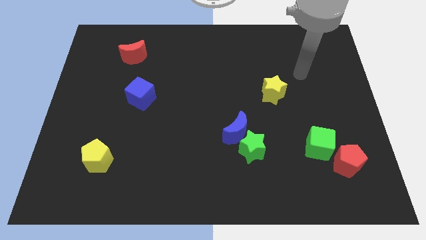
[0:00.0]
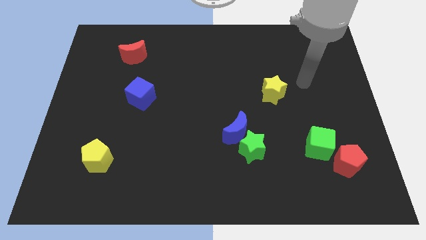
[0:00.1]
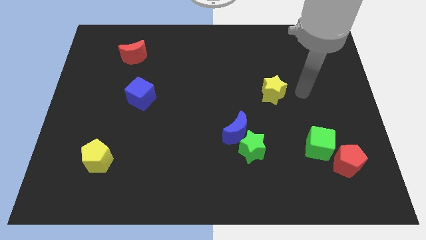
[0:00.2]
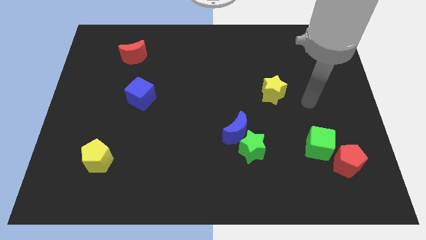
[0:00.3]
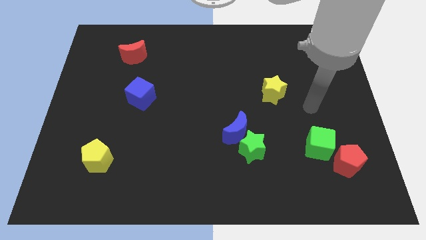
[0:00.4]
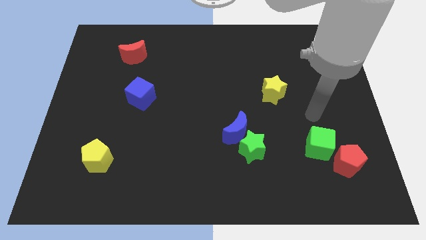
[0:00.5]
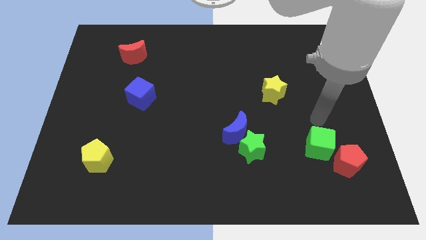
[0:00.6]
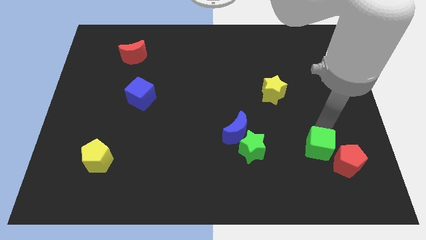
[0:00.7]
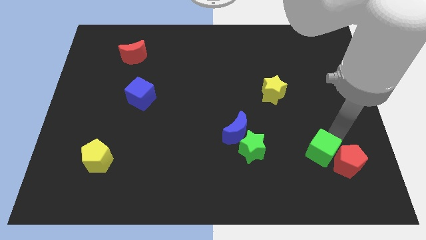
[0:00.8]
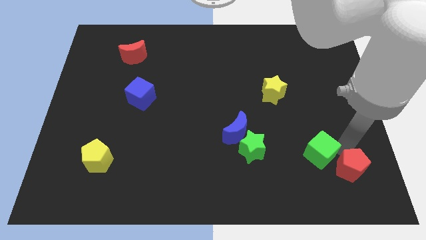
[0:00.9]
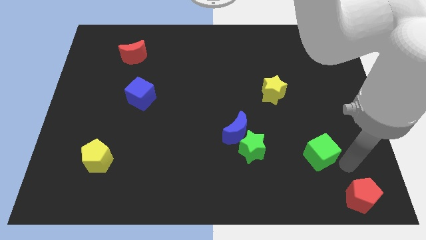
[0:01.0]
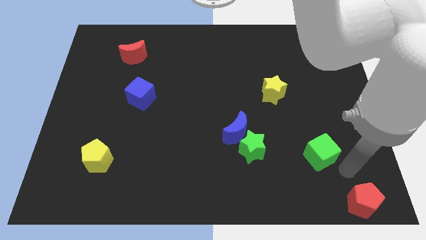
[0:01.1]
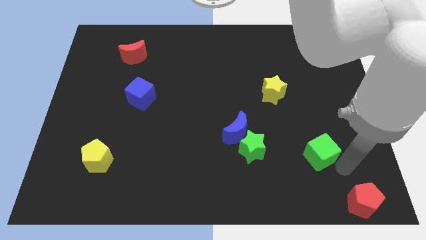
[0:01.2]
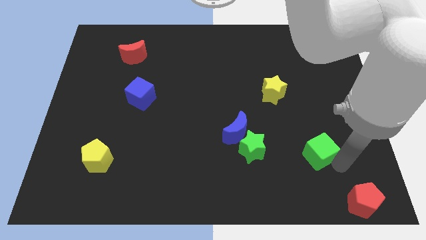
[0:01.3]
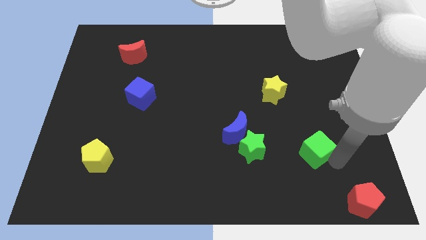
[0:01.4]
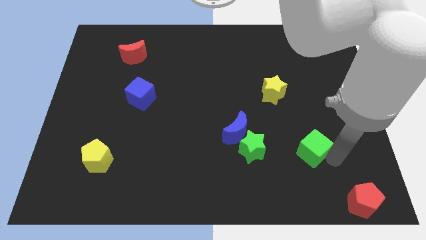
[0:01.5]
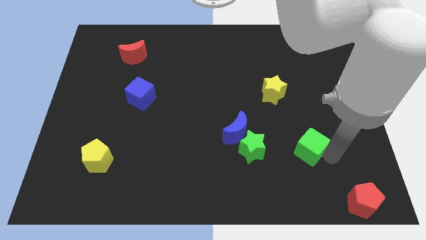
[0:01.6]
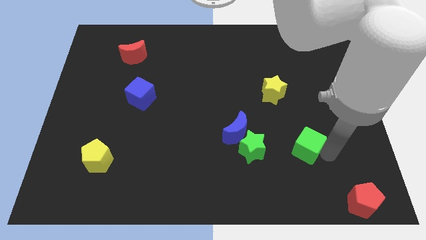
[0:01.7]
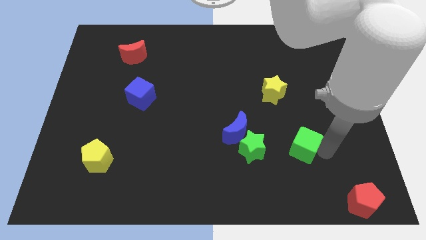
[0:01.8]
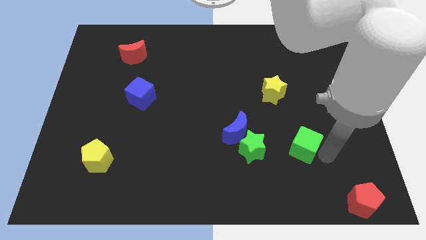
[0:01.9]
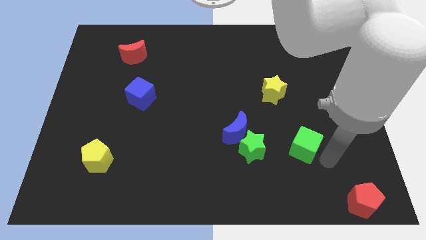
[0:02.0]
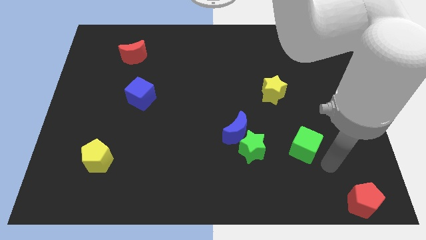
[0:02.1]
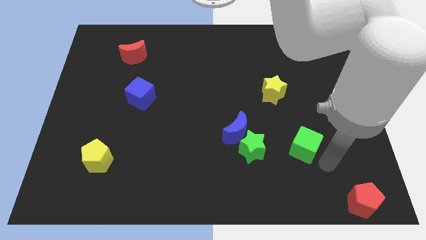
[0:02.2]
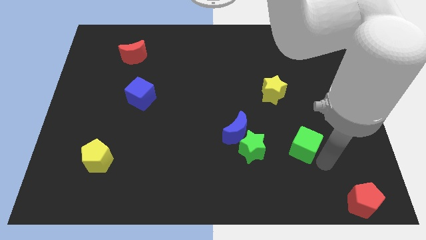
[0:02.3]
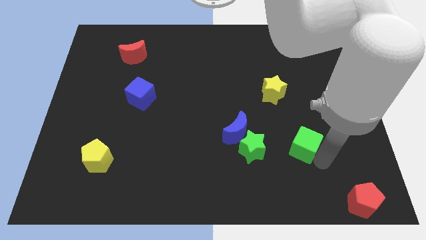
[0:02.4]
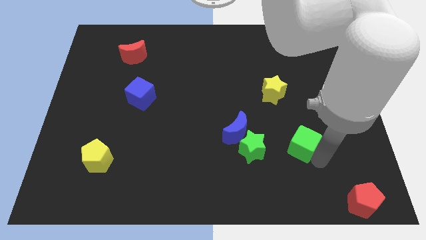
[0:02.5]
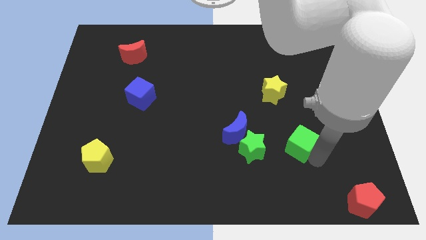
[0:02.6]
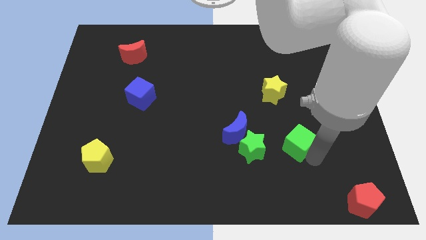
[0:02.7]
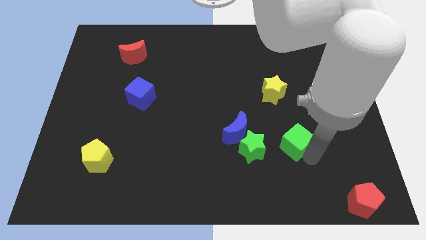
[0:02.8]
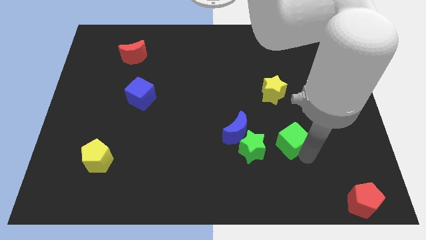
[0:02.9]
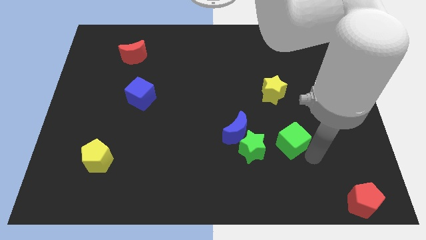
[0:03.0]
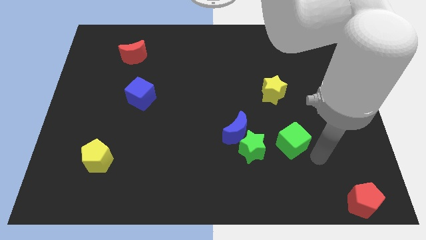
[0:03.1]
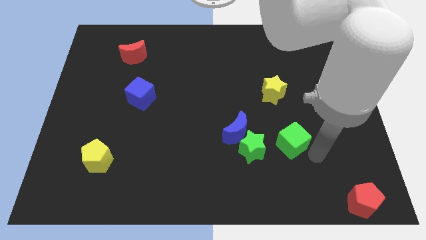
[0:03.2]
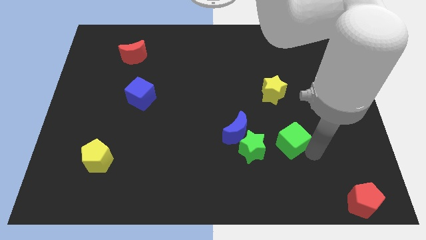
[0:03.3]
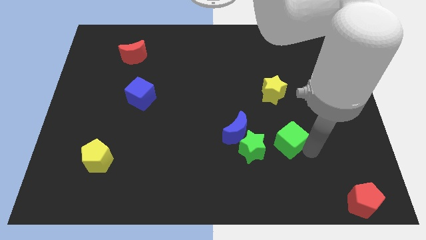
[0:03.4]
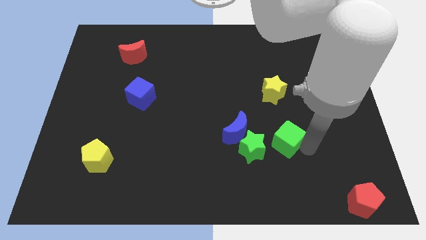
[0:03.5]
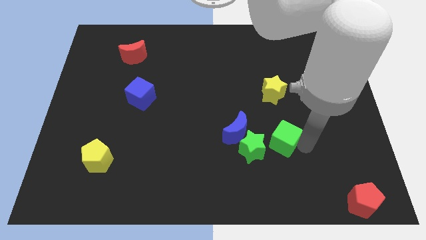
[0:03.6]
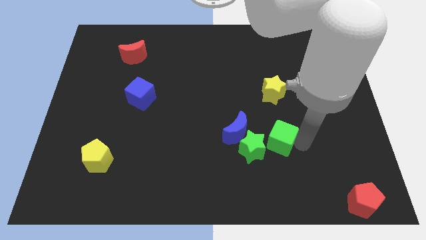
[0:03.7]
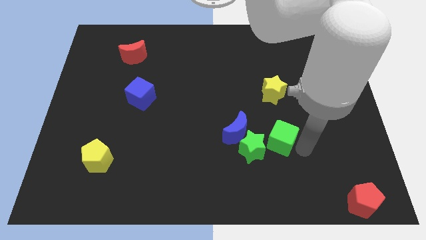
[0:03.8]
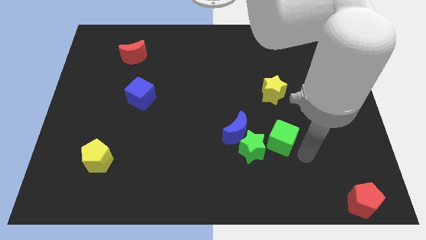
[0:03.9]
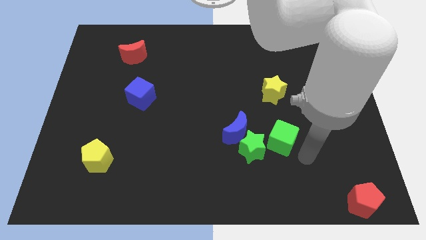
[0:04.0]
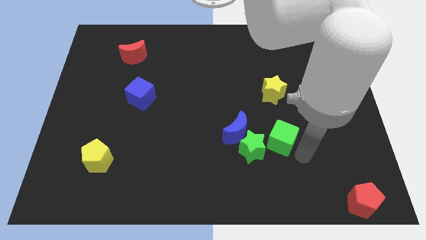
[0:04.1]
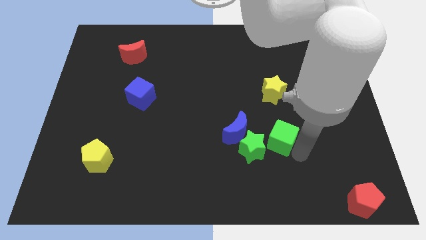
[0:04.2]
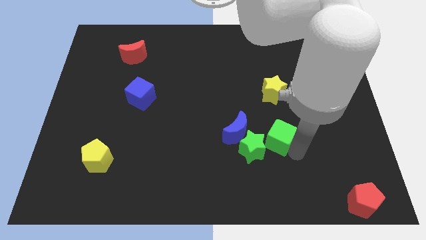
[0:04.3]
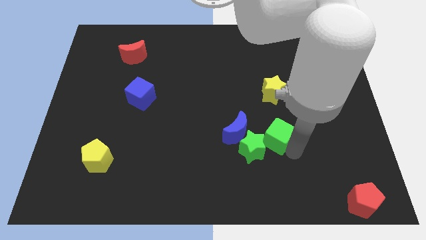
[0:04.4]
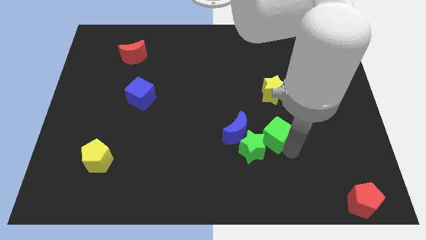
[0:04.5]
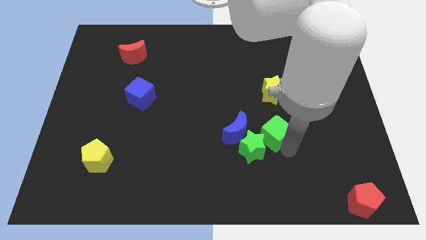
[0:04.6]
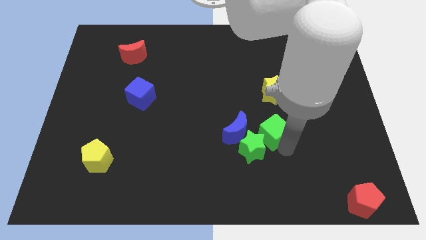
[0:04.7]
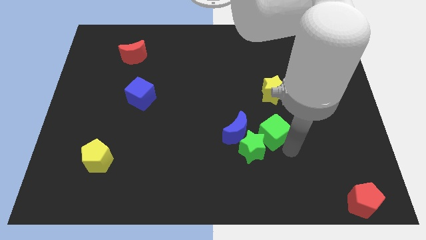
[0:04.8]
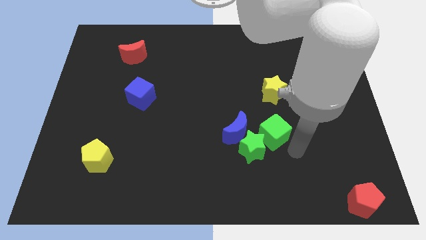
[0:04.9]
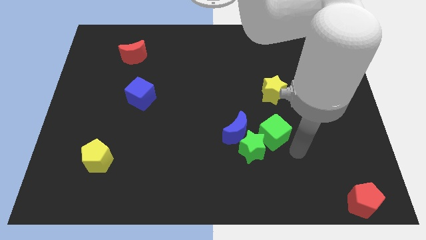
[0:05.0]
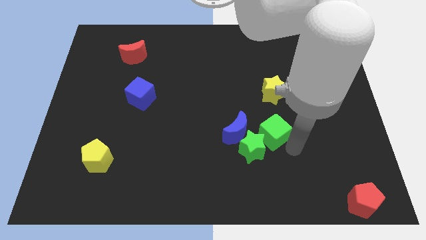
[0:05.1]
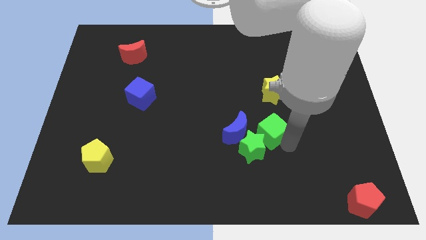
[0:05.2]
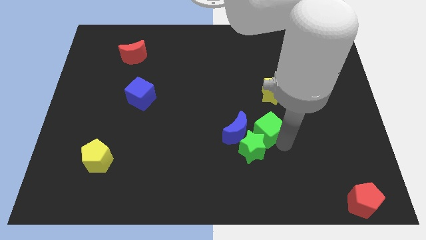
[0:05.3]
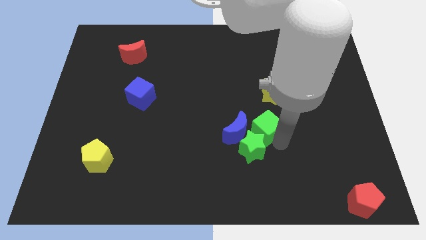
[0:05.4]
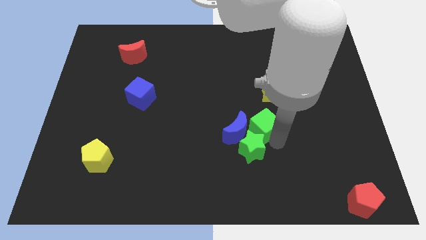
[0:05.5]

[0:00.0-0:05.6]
put the green cube to the blue moon

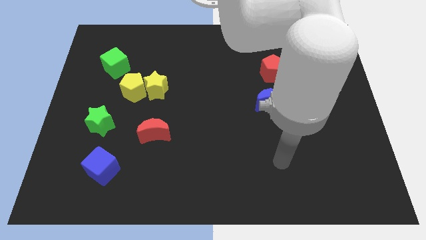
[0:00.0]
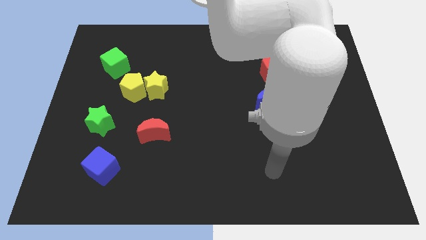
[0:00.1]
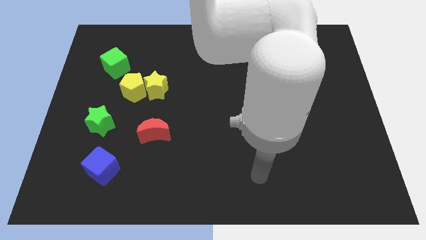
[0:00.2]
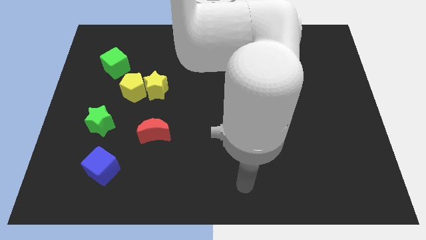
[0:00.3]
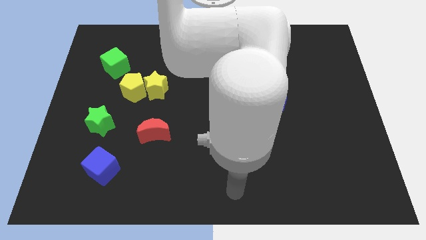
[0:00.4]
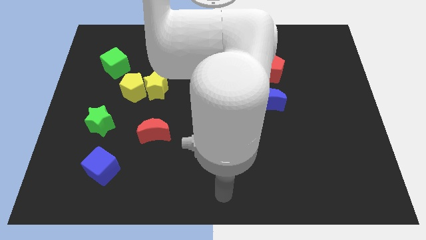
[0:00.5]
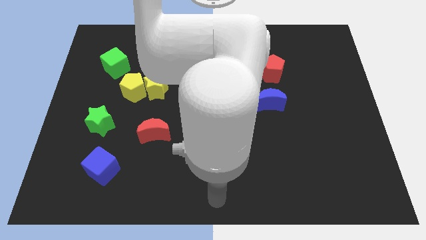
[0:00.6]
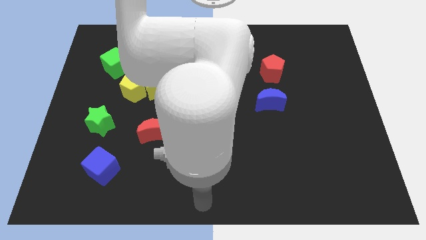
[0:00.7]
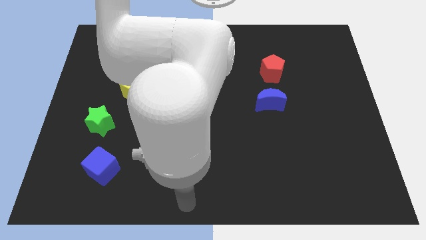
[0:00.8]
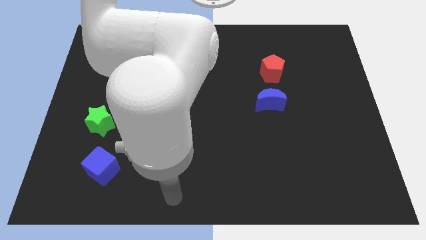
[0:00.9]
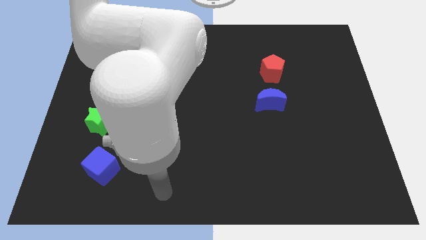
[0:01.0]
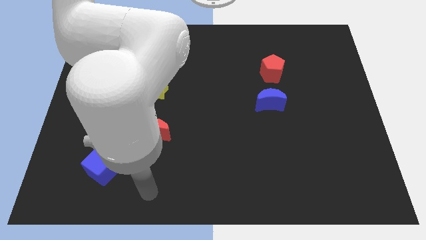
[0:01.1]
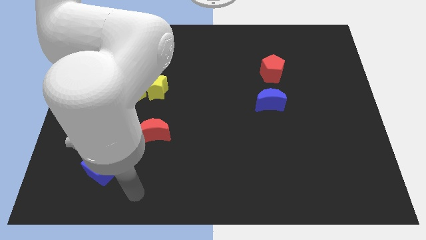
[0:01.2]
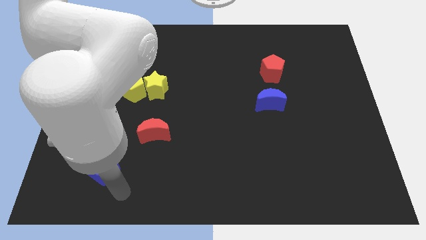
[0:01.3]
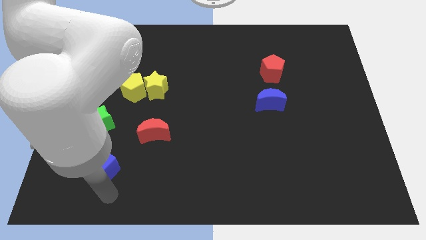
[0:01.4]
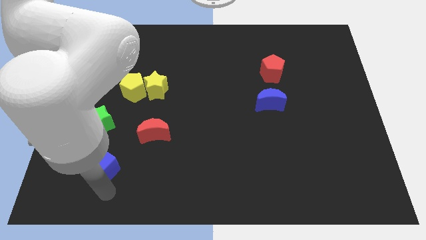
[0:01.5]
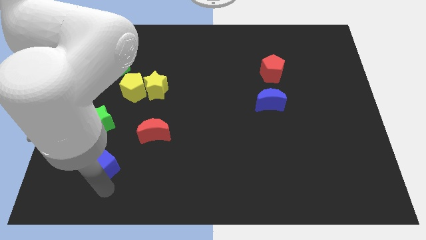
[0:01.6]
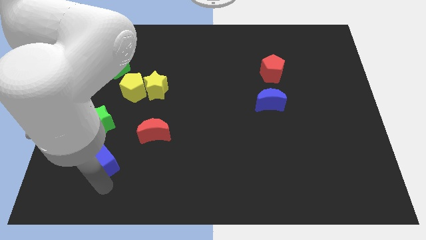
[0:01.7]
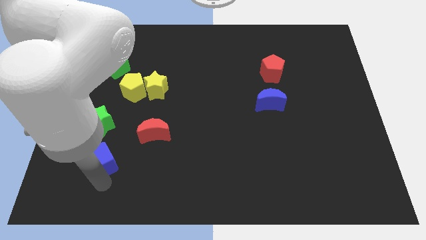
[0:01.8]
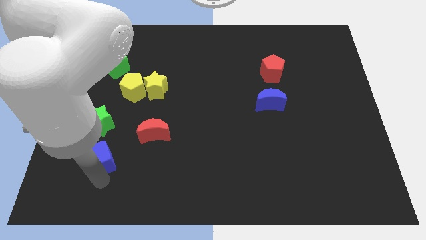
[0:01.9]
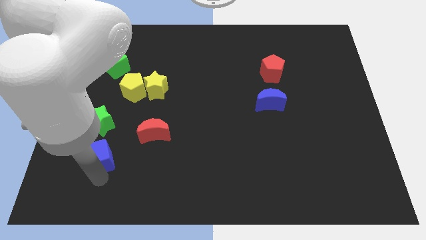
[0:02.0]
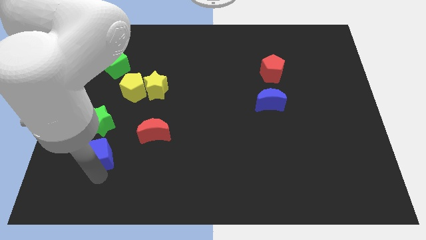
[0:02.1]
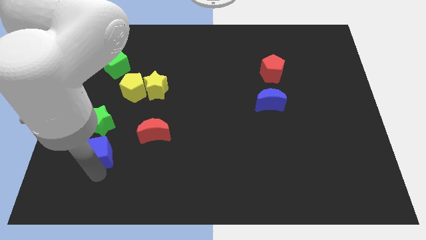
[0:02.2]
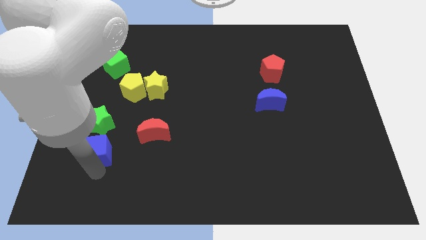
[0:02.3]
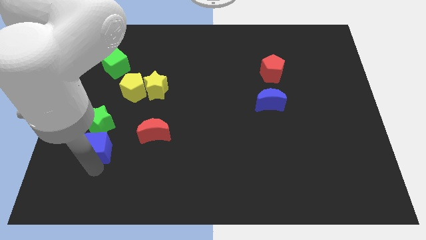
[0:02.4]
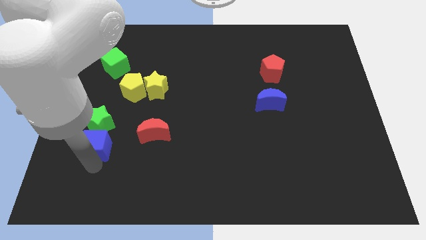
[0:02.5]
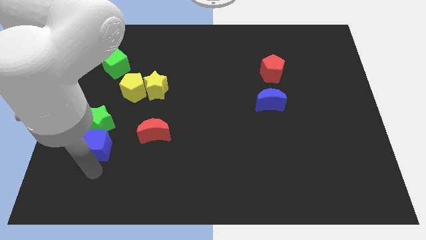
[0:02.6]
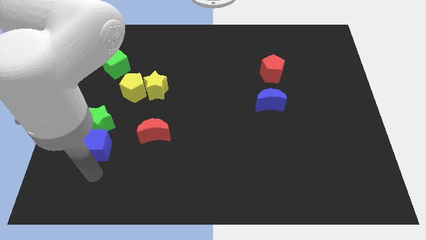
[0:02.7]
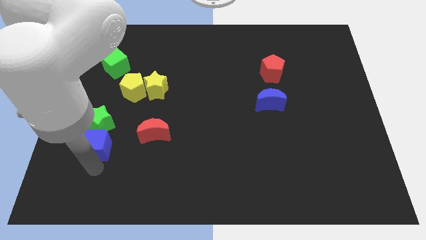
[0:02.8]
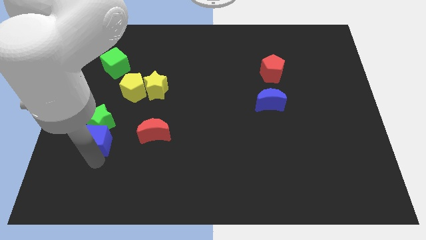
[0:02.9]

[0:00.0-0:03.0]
move the blue cube towards the green star
